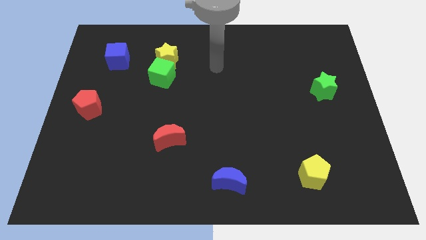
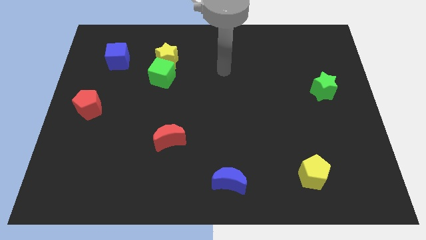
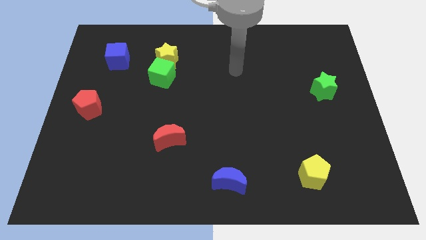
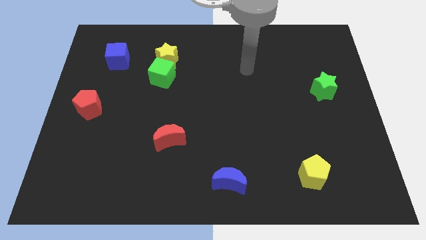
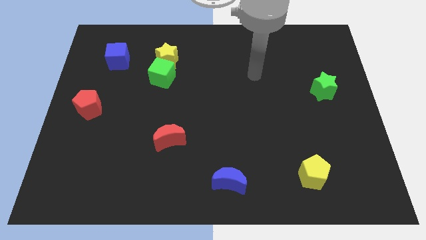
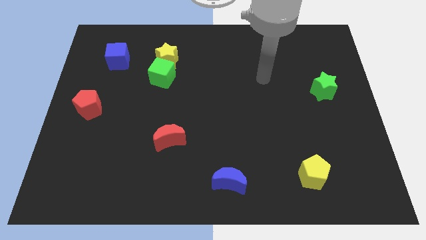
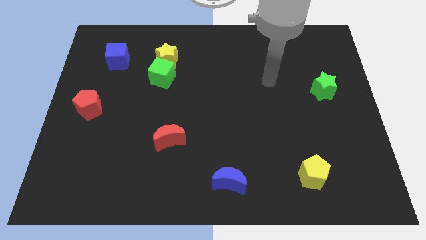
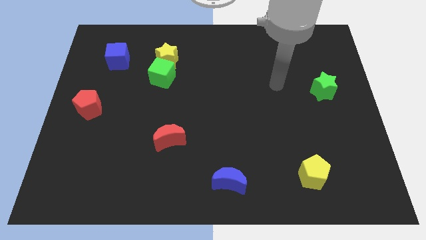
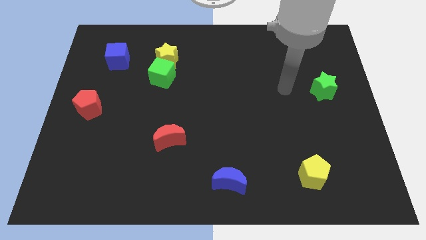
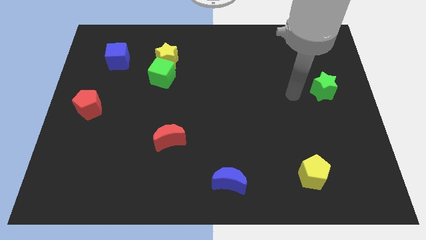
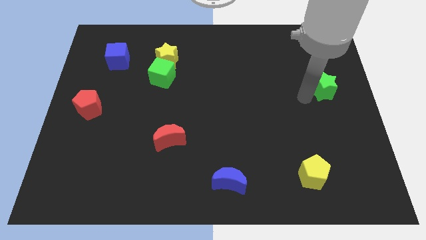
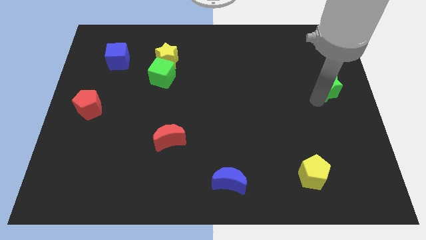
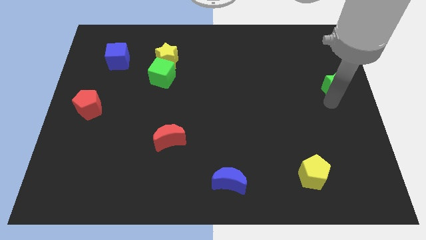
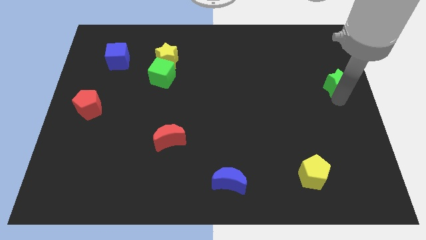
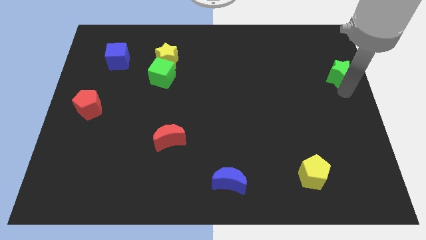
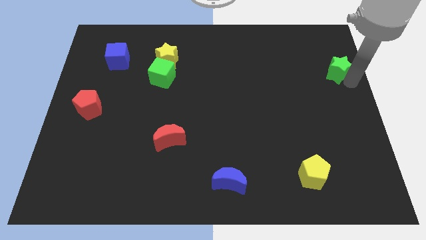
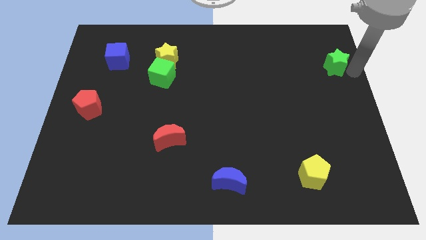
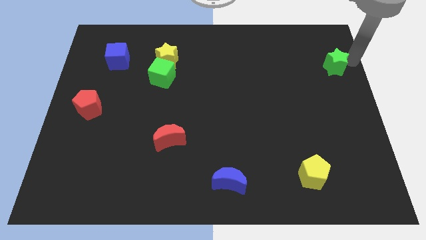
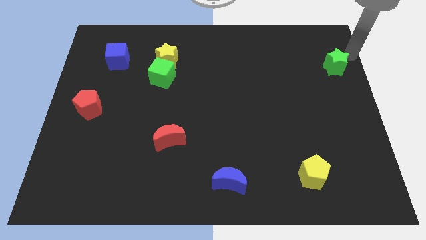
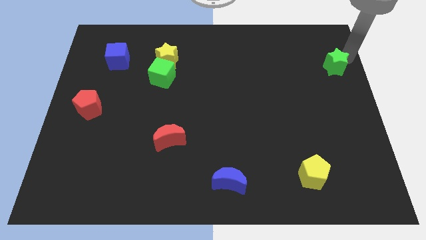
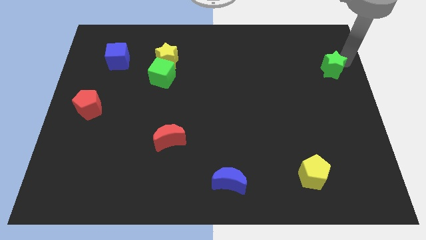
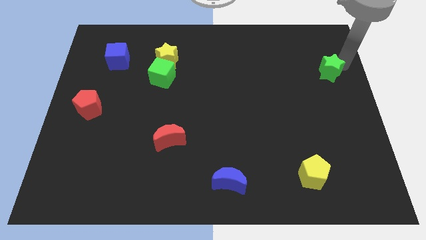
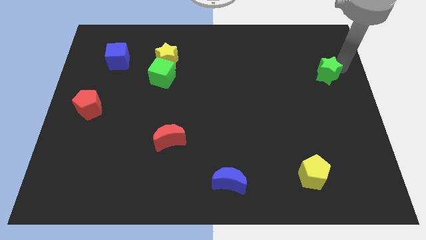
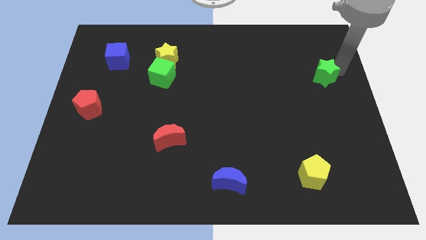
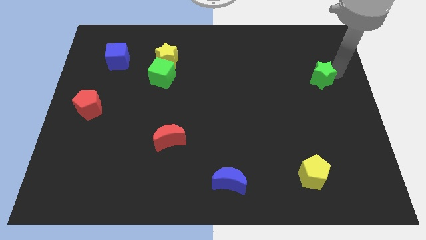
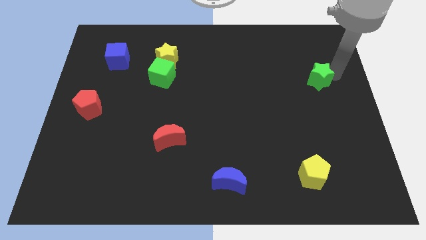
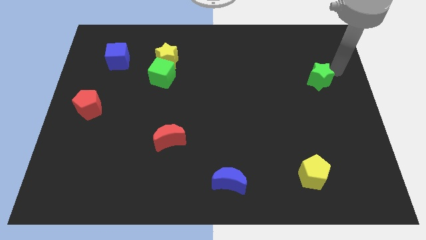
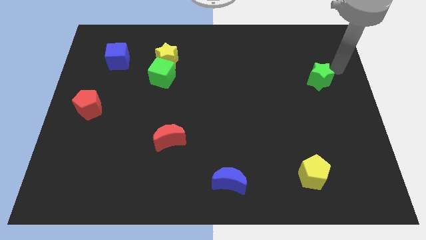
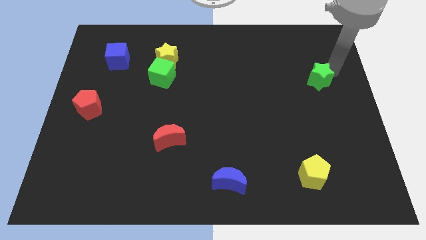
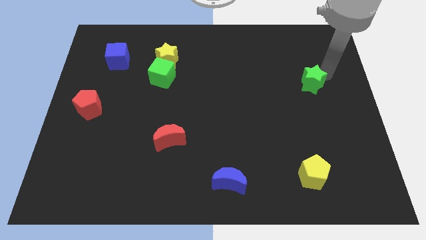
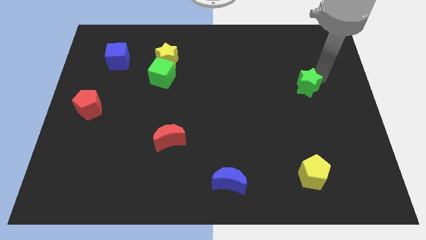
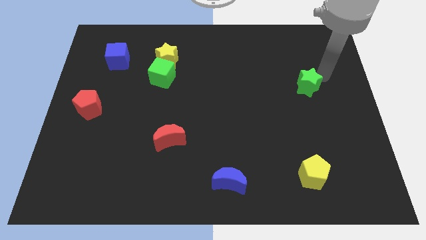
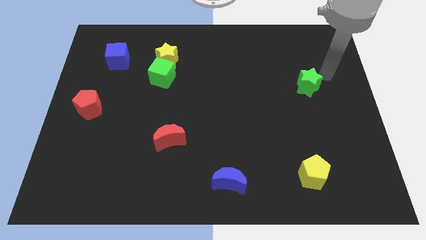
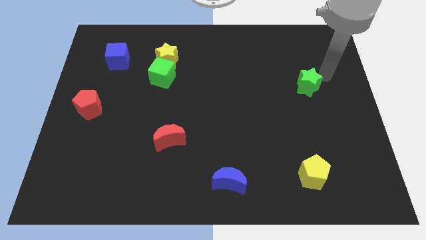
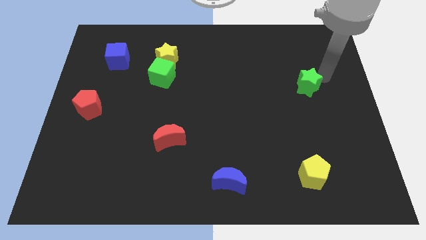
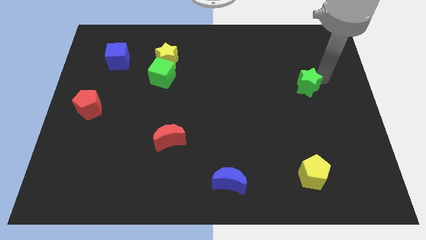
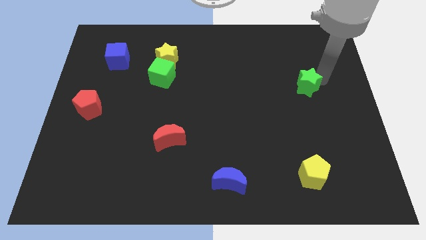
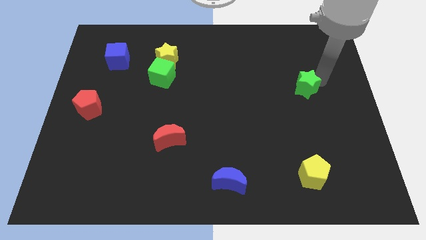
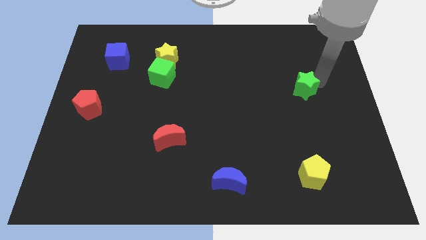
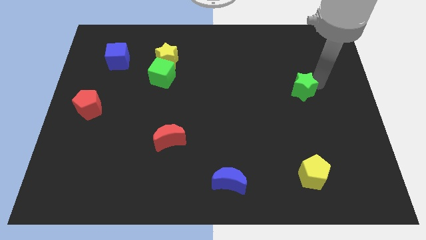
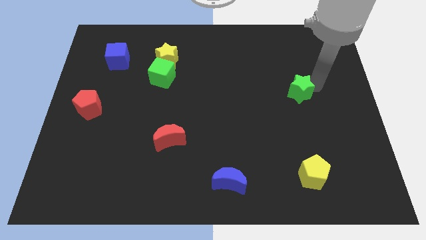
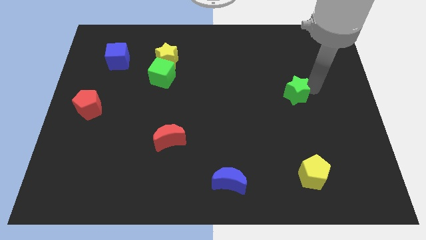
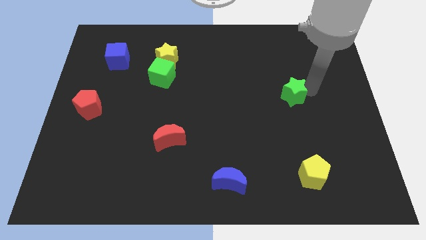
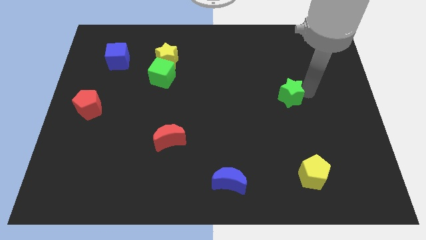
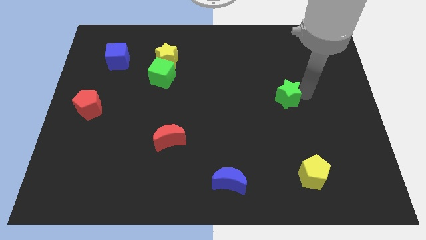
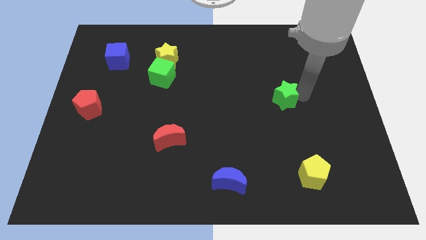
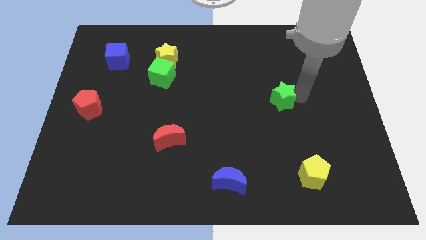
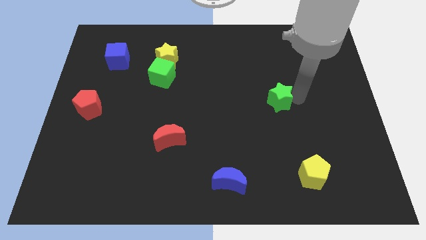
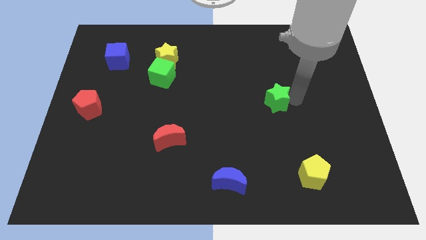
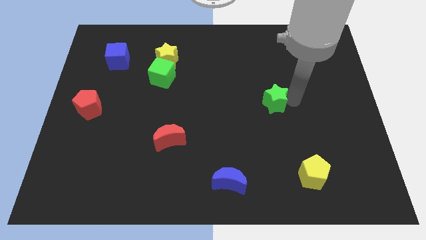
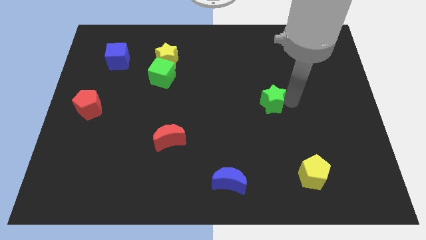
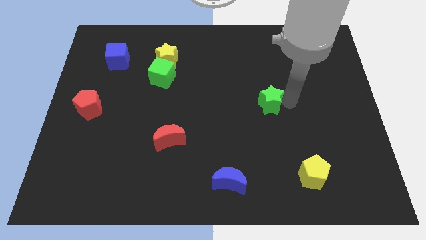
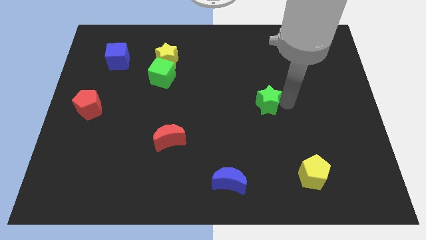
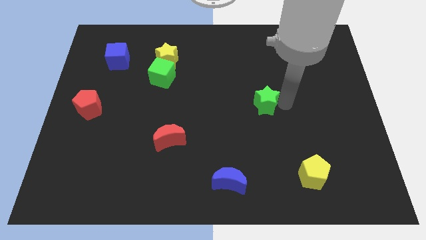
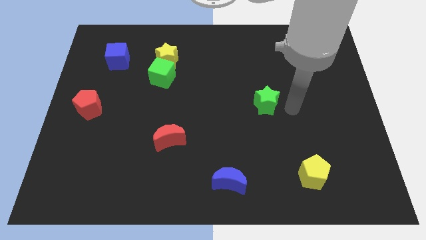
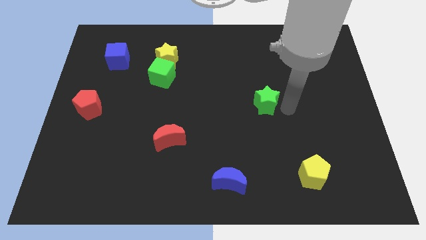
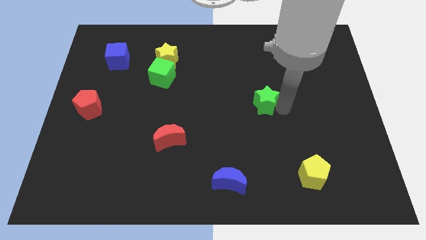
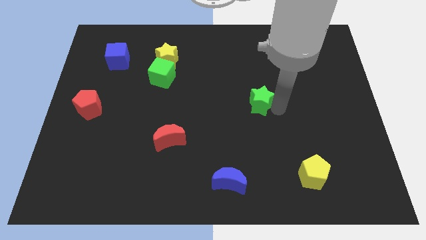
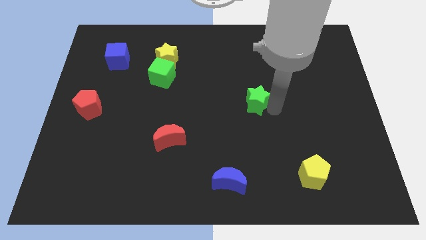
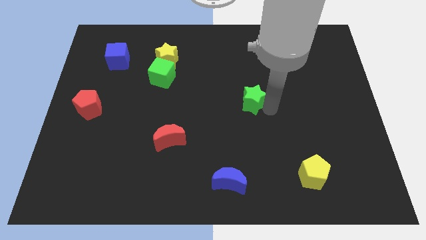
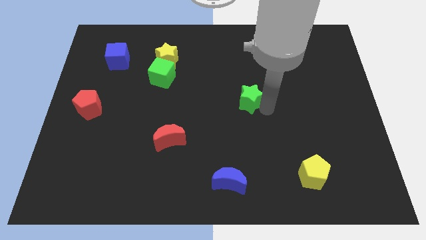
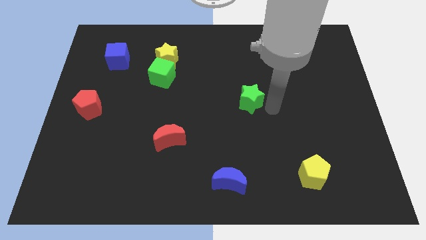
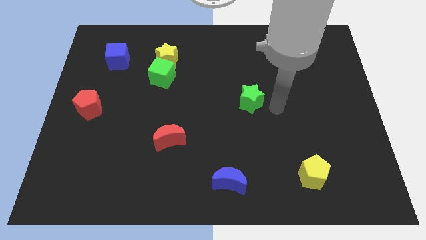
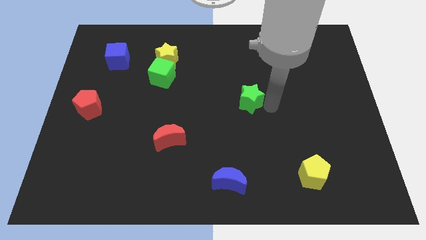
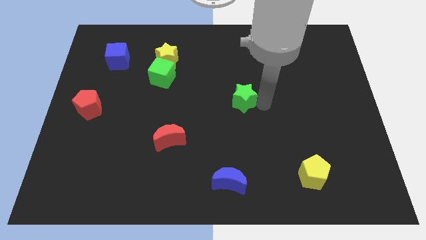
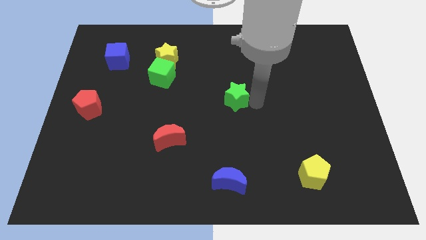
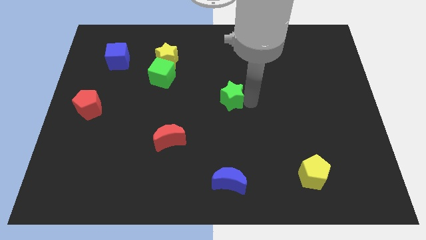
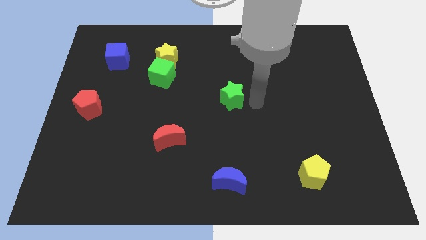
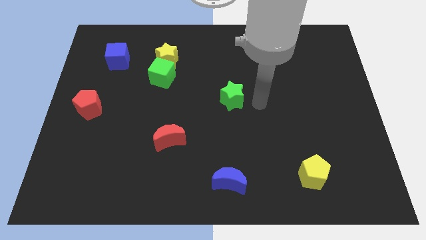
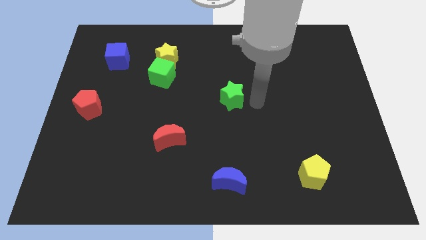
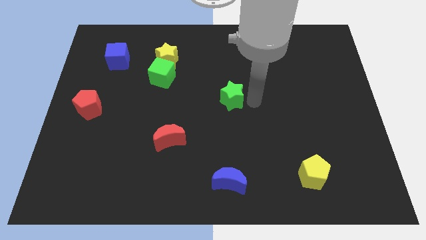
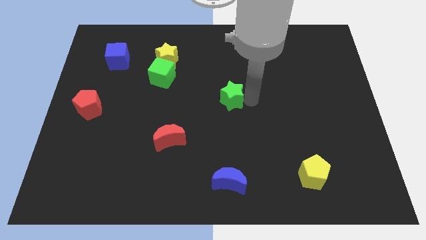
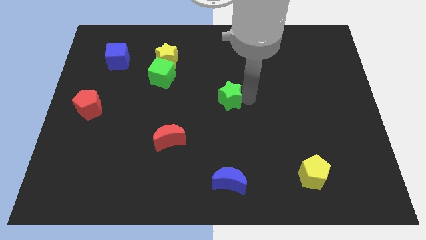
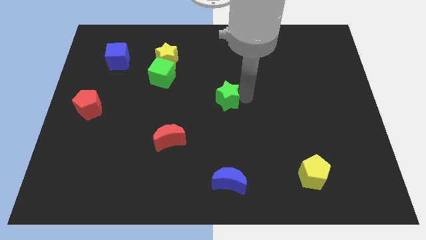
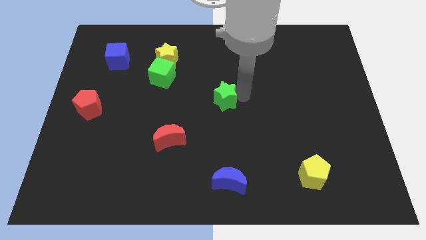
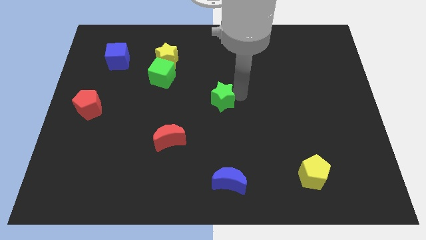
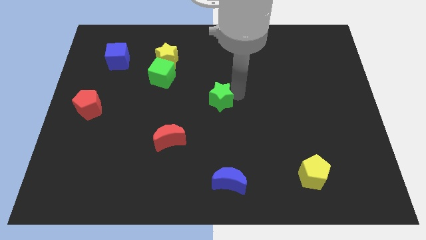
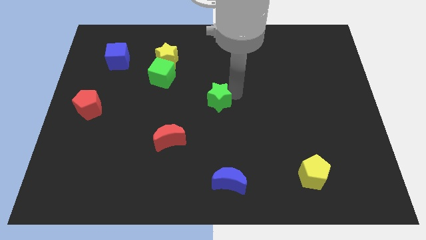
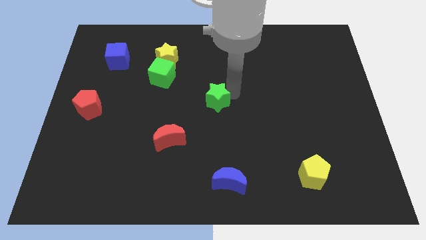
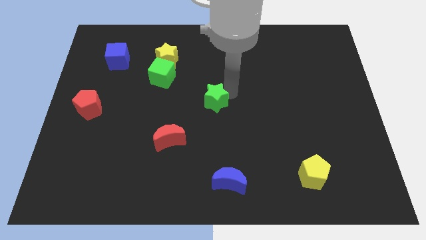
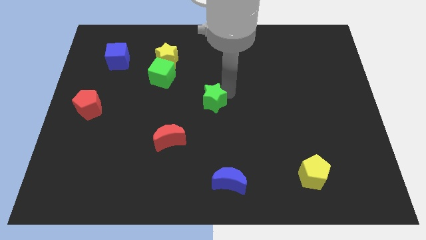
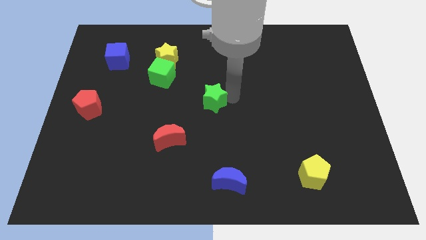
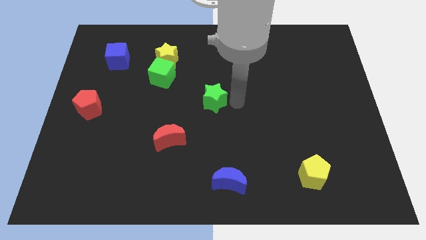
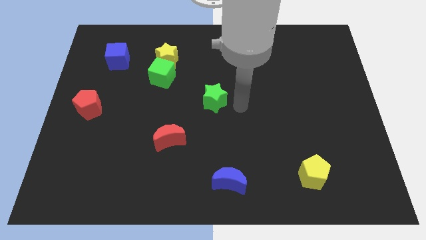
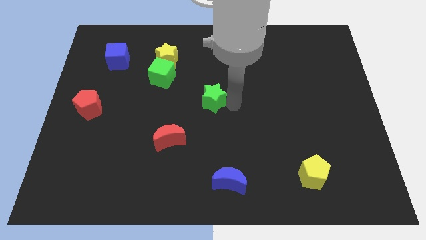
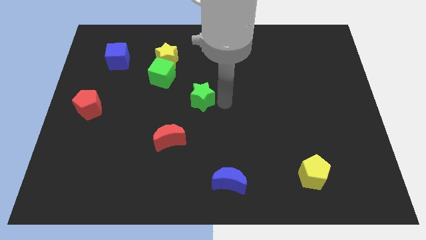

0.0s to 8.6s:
put the green star to the bottom right side of the green cube
